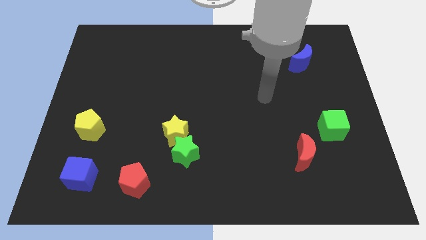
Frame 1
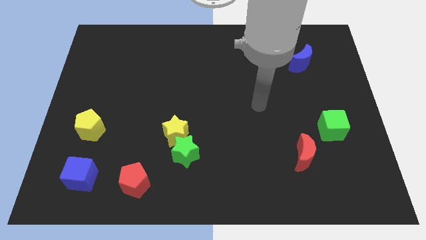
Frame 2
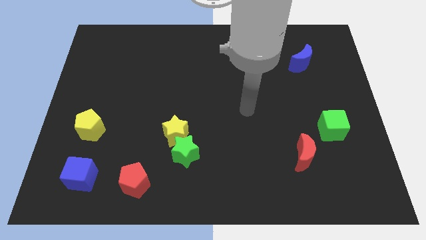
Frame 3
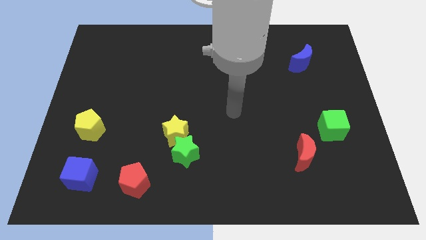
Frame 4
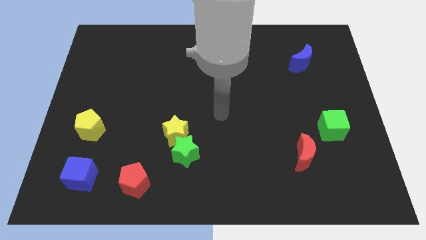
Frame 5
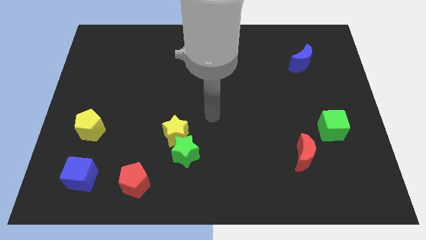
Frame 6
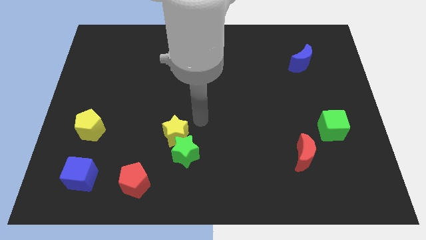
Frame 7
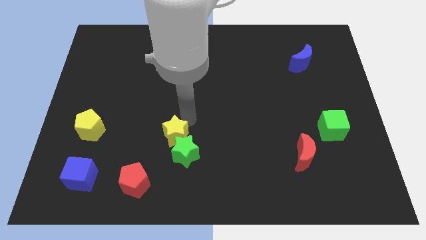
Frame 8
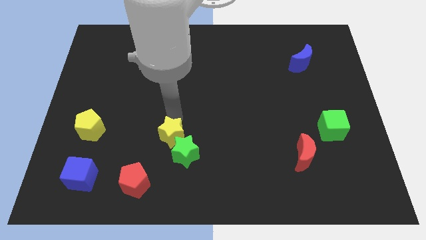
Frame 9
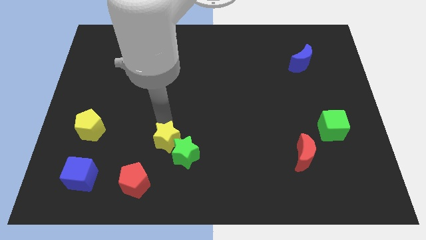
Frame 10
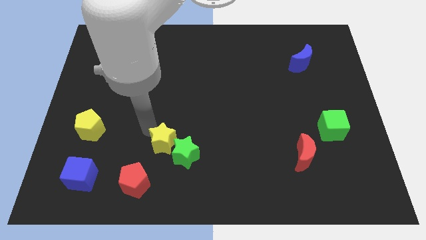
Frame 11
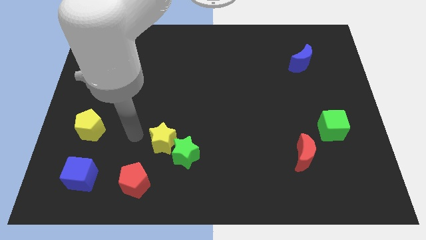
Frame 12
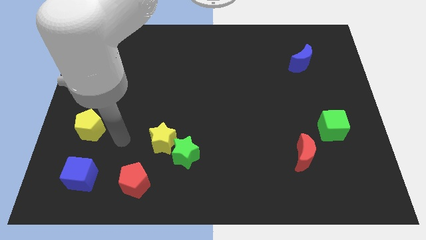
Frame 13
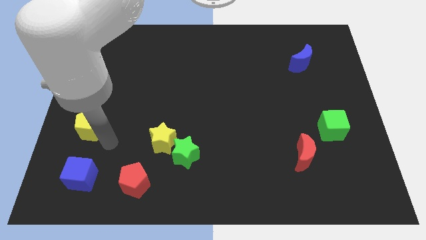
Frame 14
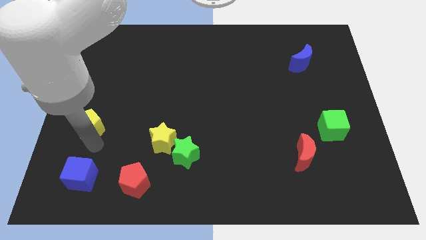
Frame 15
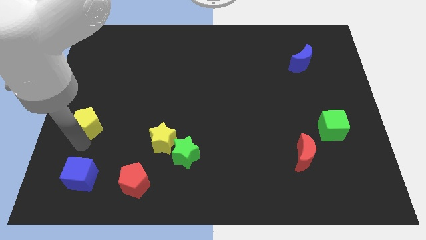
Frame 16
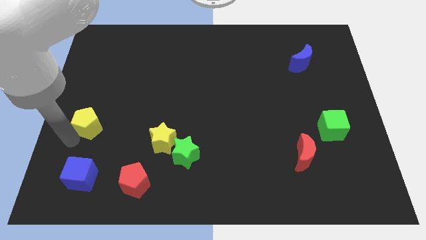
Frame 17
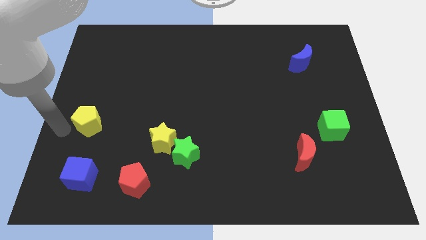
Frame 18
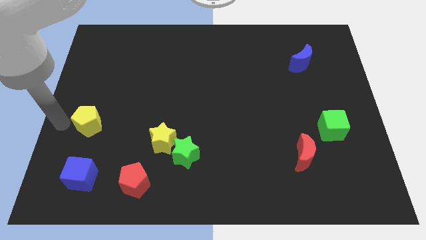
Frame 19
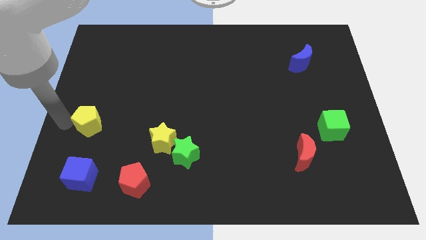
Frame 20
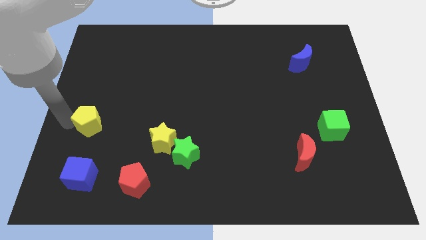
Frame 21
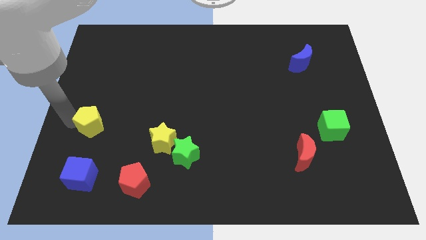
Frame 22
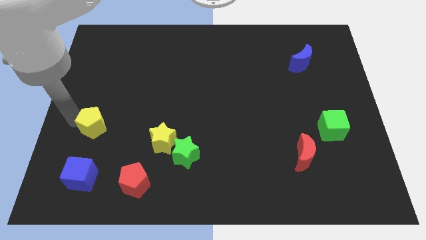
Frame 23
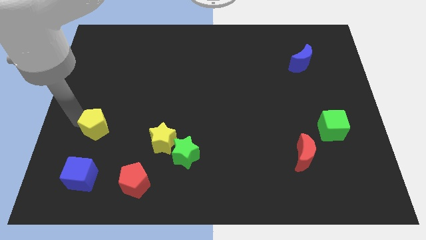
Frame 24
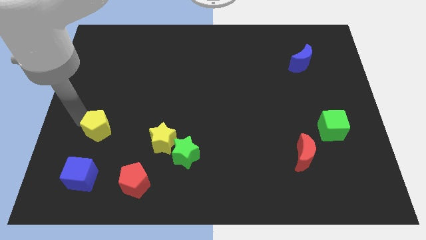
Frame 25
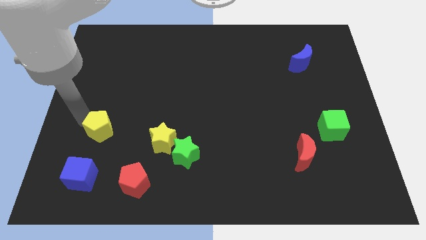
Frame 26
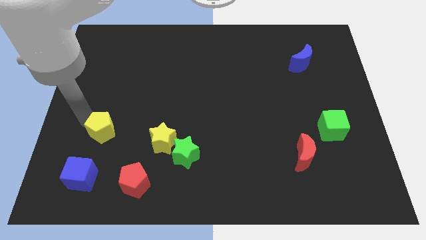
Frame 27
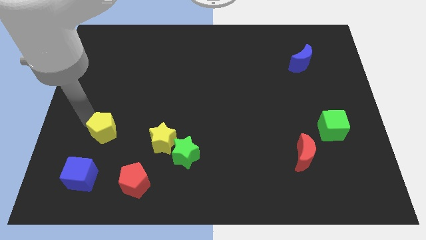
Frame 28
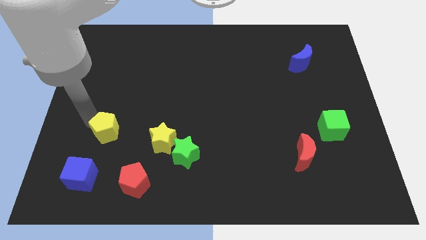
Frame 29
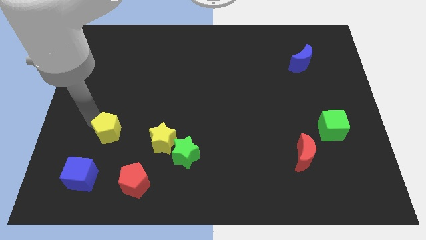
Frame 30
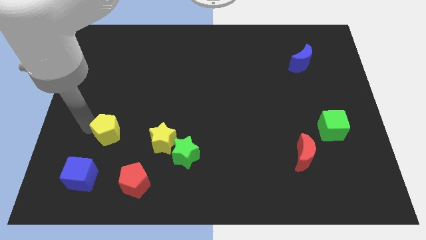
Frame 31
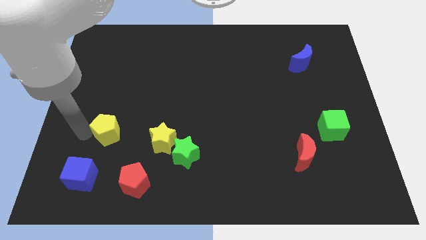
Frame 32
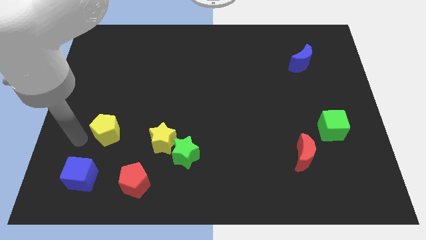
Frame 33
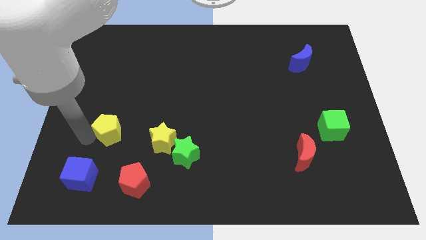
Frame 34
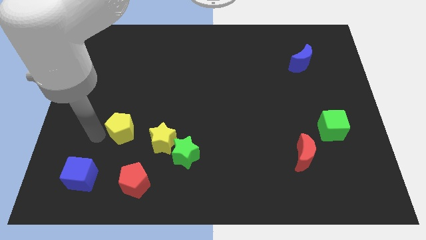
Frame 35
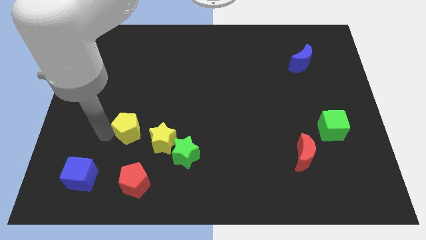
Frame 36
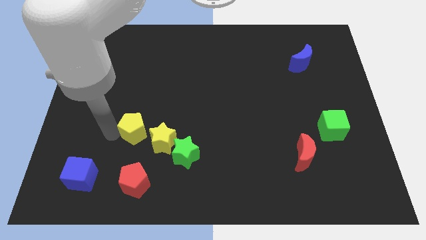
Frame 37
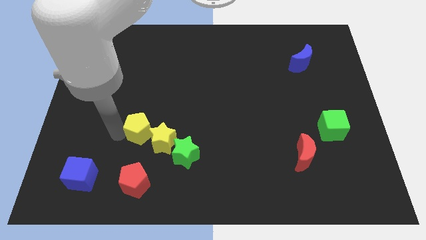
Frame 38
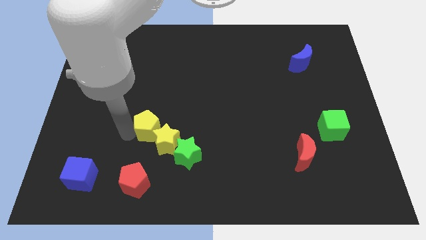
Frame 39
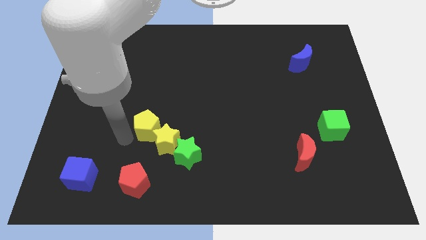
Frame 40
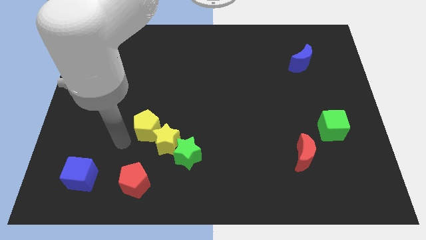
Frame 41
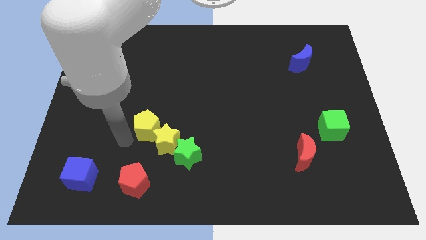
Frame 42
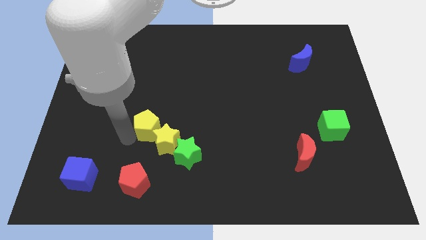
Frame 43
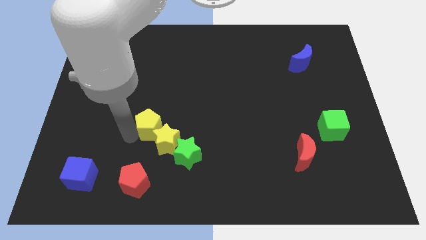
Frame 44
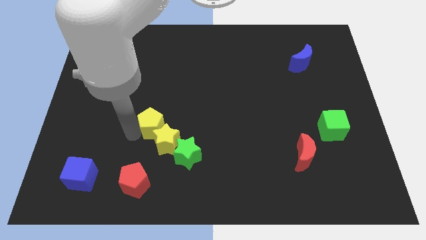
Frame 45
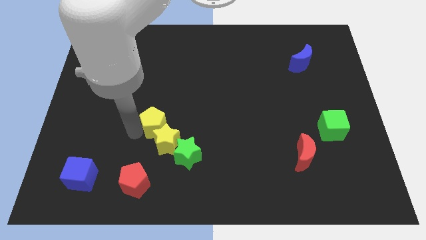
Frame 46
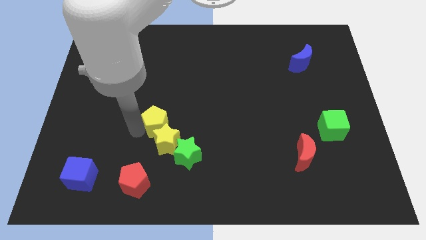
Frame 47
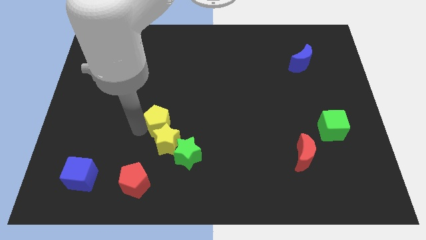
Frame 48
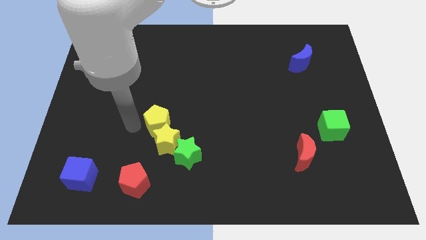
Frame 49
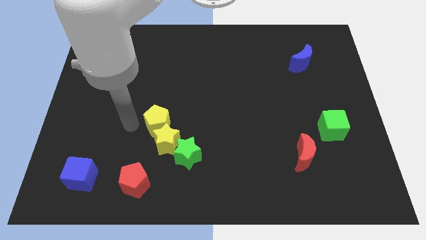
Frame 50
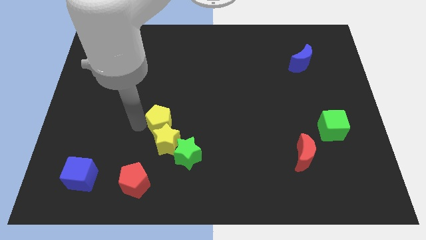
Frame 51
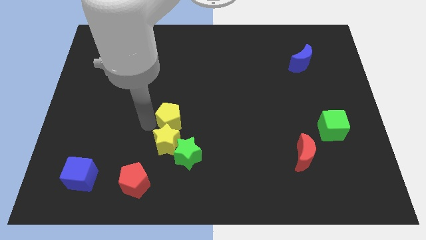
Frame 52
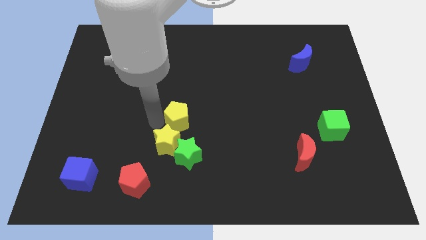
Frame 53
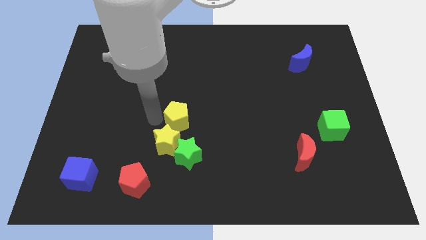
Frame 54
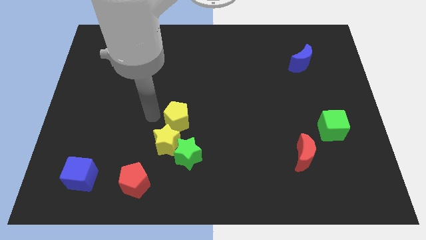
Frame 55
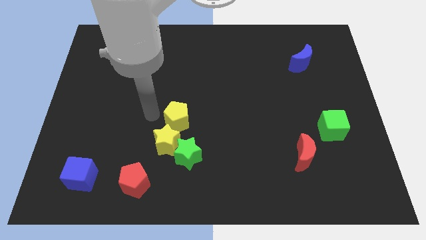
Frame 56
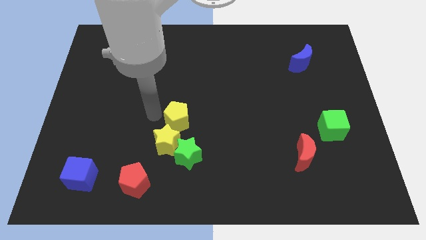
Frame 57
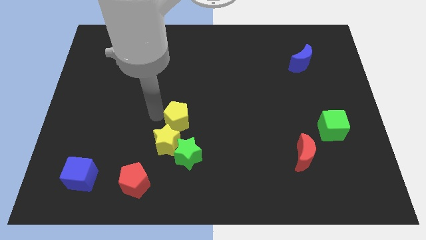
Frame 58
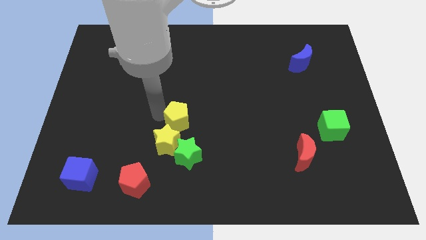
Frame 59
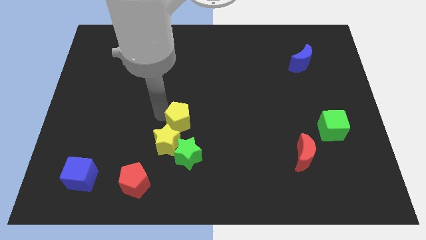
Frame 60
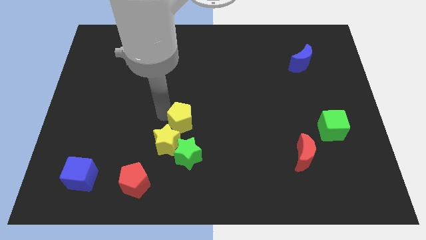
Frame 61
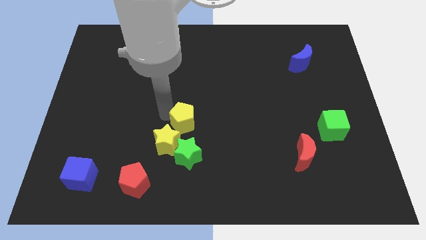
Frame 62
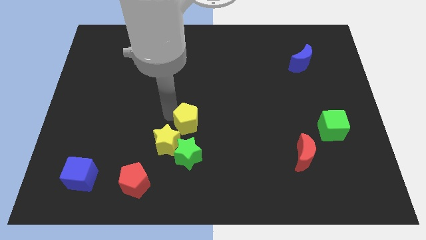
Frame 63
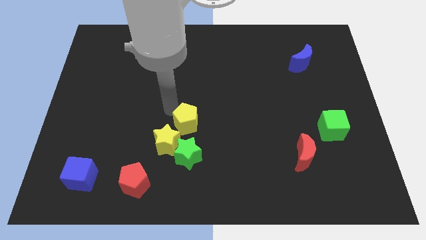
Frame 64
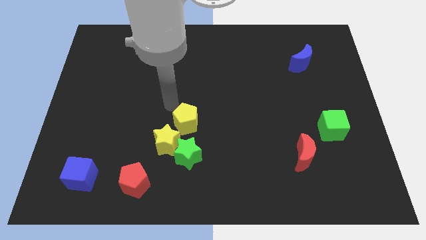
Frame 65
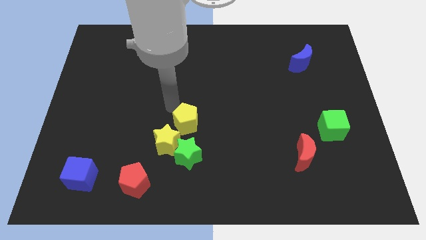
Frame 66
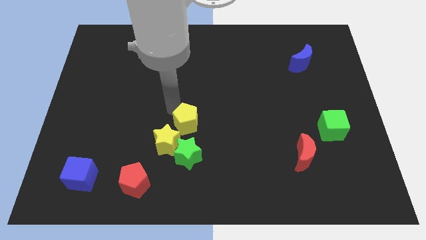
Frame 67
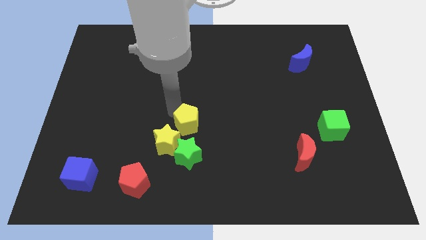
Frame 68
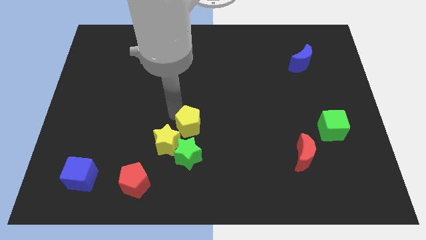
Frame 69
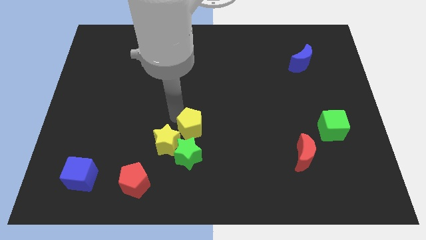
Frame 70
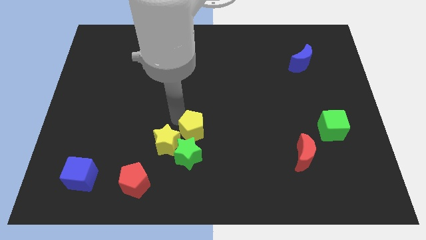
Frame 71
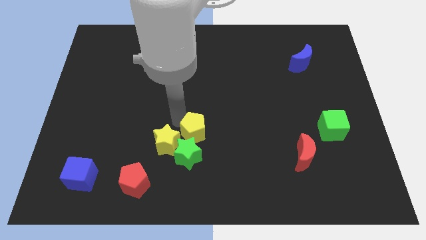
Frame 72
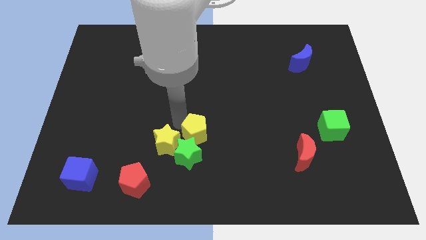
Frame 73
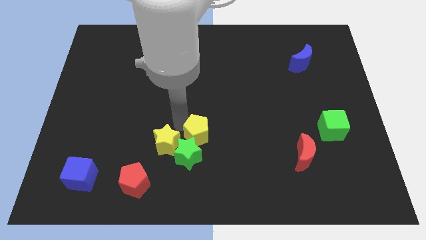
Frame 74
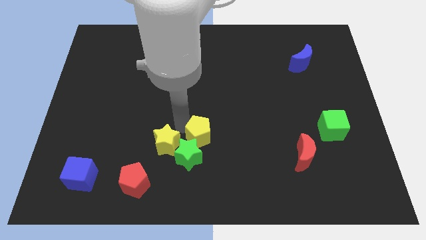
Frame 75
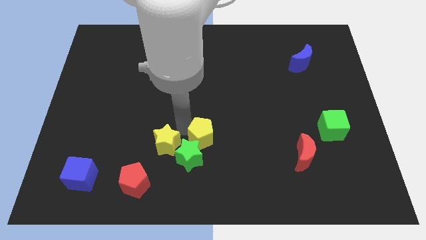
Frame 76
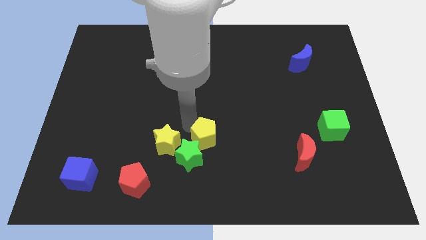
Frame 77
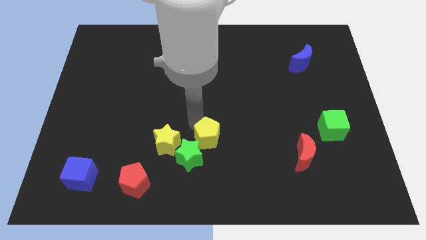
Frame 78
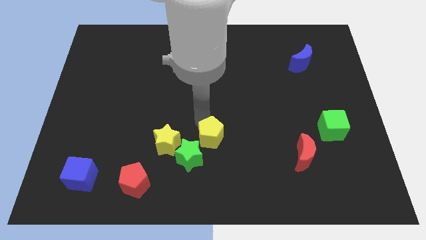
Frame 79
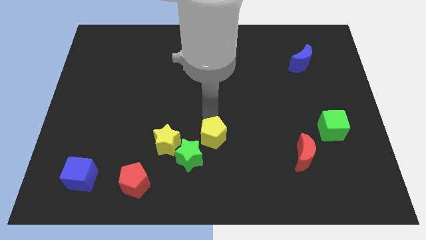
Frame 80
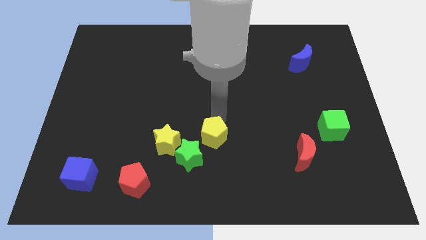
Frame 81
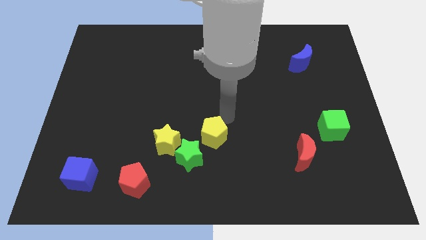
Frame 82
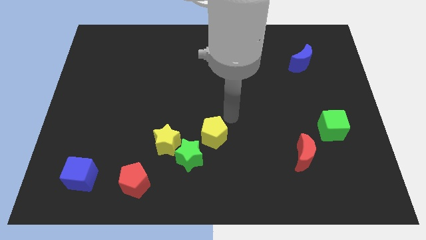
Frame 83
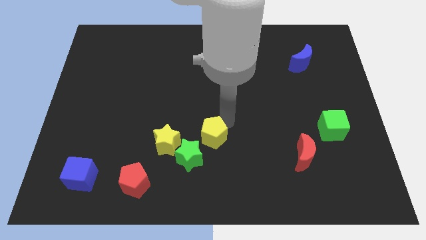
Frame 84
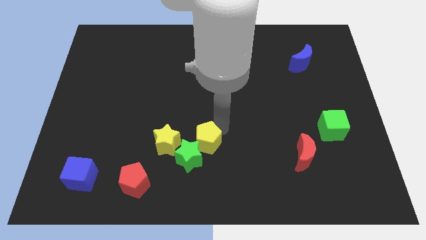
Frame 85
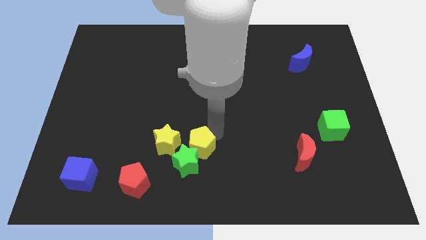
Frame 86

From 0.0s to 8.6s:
put the yellow pentagon to the bottom right of the yellow star
